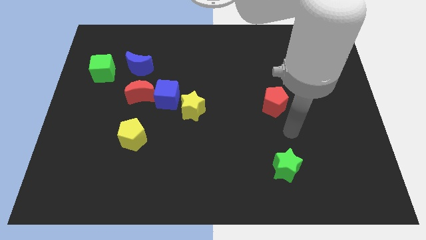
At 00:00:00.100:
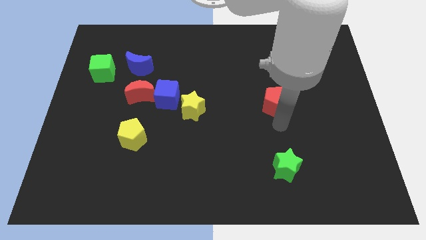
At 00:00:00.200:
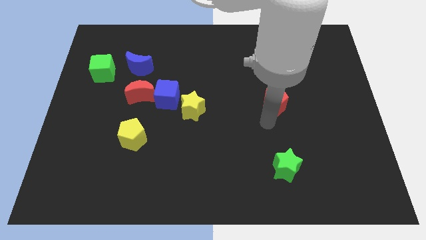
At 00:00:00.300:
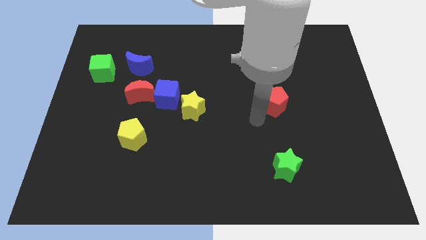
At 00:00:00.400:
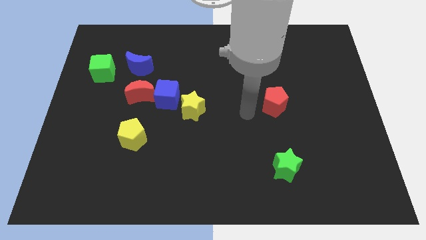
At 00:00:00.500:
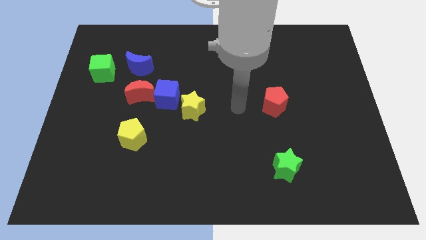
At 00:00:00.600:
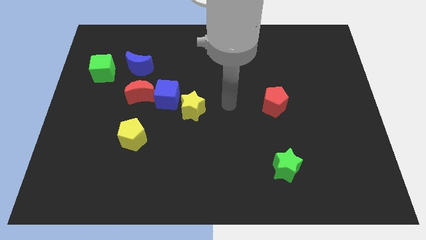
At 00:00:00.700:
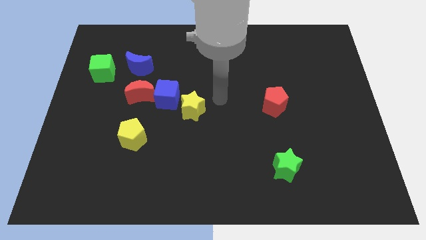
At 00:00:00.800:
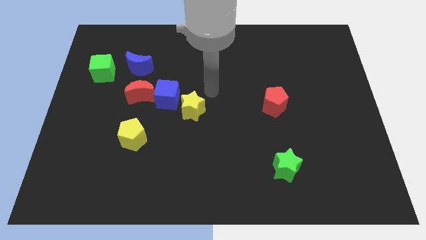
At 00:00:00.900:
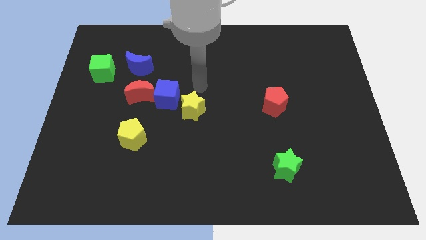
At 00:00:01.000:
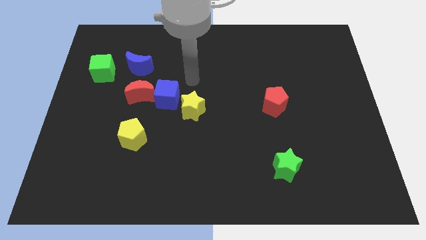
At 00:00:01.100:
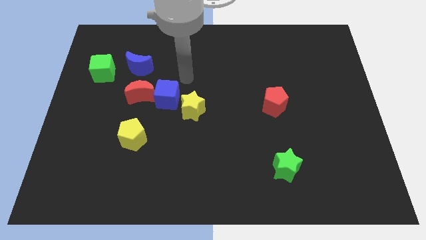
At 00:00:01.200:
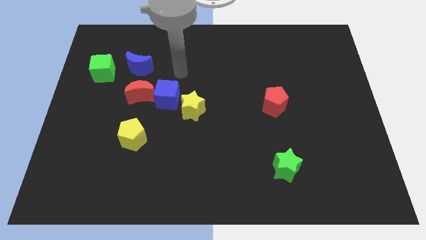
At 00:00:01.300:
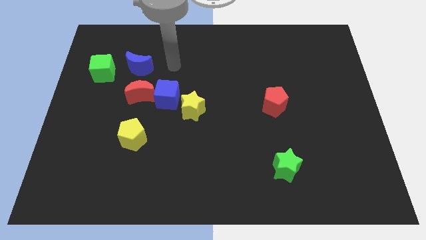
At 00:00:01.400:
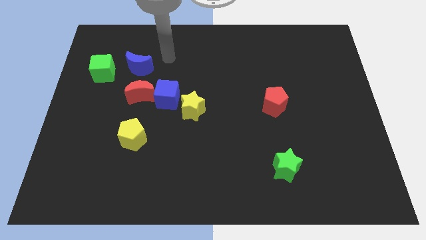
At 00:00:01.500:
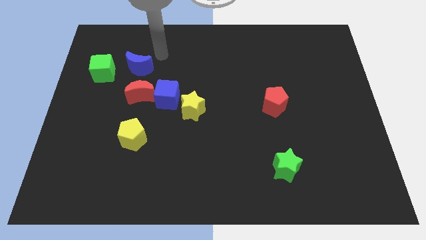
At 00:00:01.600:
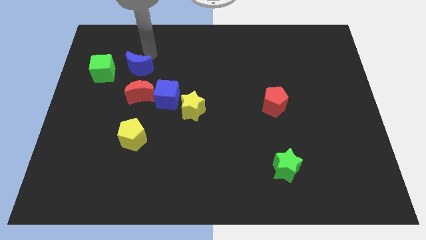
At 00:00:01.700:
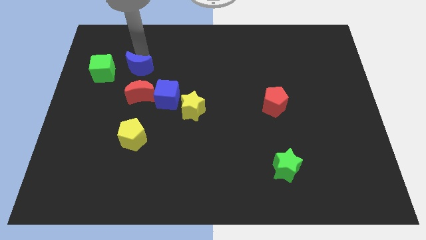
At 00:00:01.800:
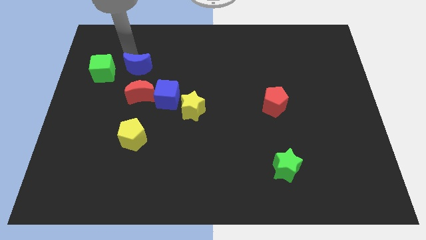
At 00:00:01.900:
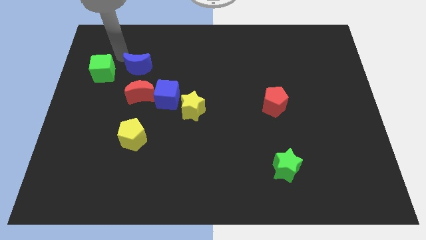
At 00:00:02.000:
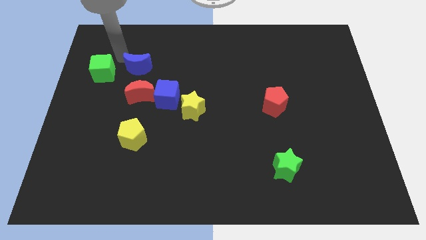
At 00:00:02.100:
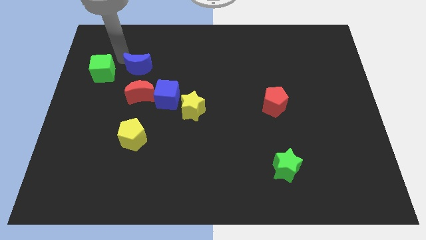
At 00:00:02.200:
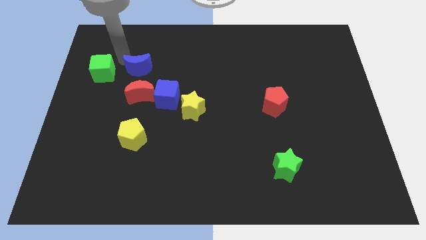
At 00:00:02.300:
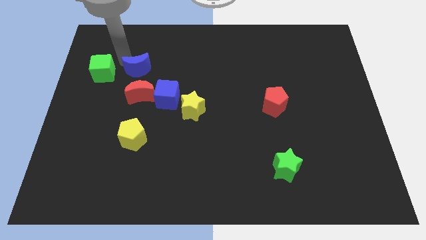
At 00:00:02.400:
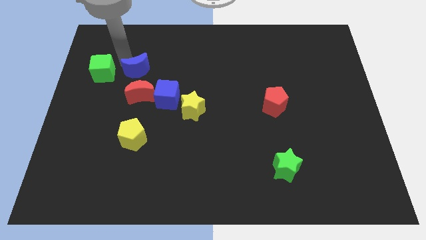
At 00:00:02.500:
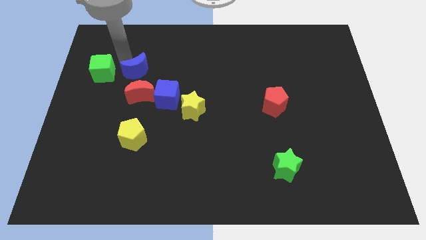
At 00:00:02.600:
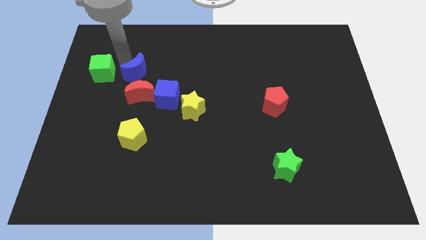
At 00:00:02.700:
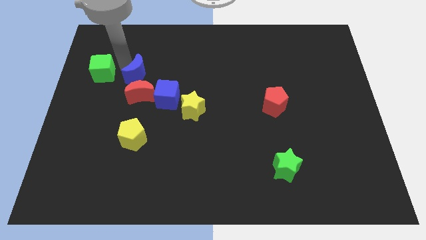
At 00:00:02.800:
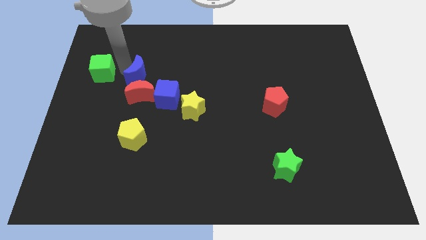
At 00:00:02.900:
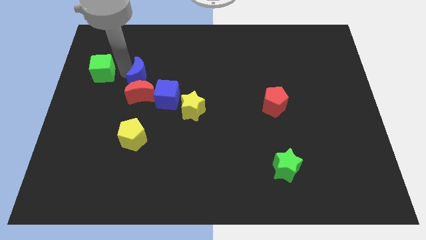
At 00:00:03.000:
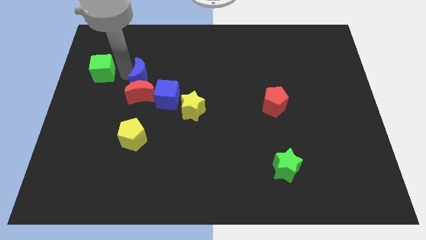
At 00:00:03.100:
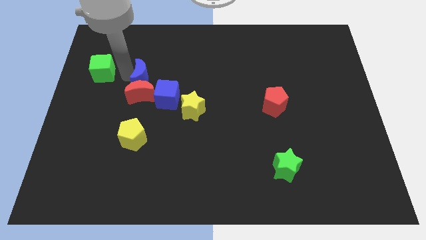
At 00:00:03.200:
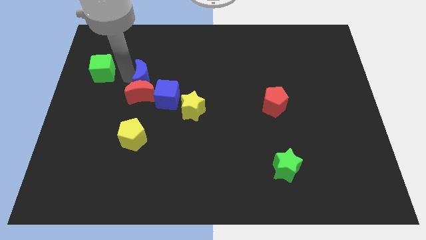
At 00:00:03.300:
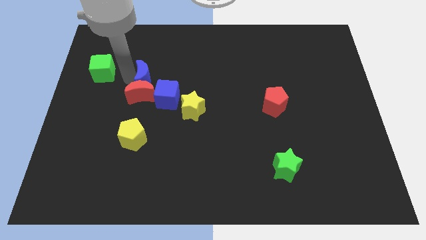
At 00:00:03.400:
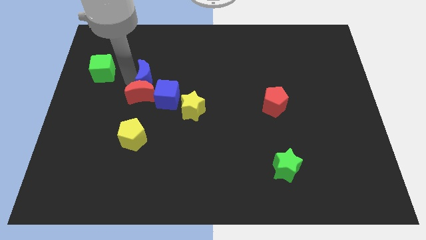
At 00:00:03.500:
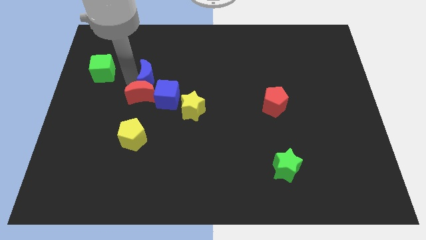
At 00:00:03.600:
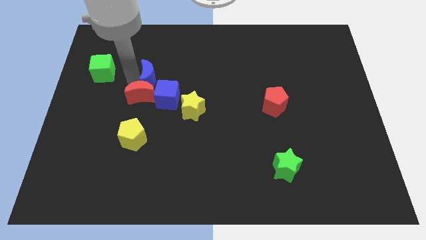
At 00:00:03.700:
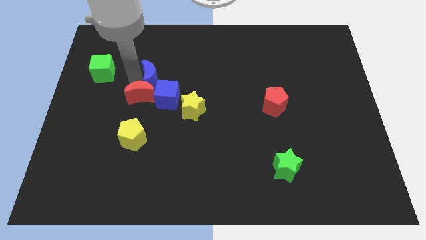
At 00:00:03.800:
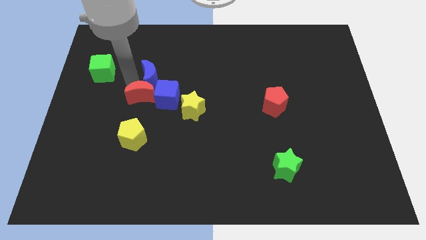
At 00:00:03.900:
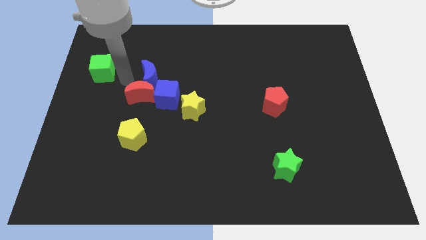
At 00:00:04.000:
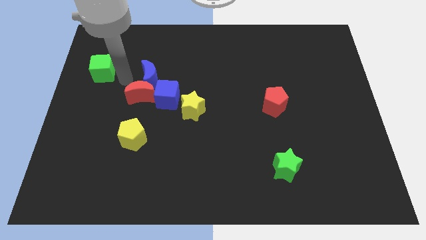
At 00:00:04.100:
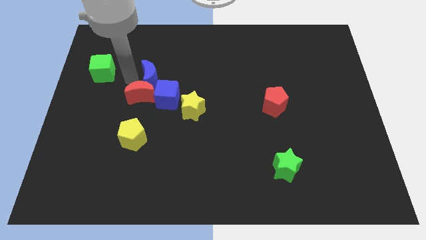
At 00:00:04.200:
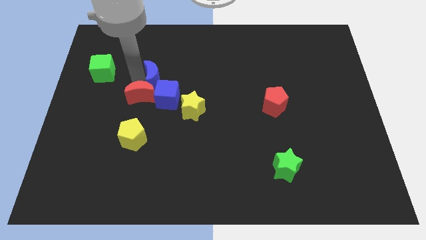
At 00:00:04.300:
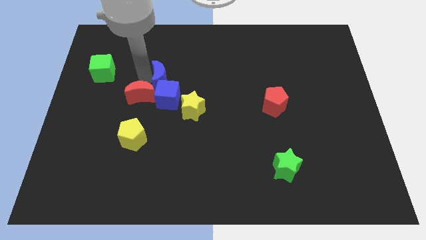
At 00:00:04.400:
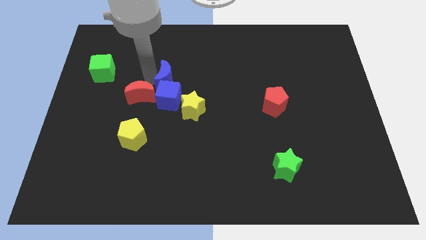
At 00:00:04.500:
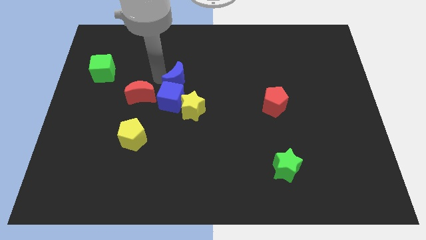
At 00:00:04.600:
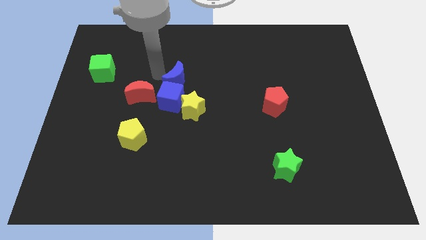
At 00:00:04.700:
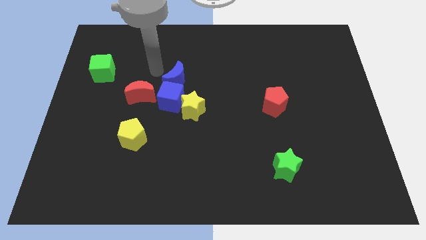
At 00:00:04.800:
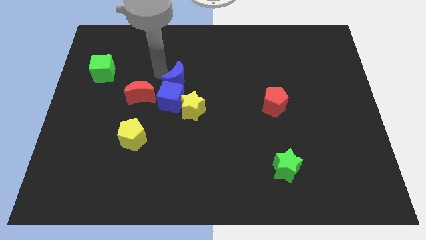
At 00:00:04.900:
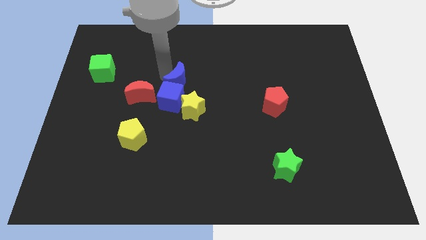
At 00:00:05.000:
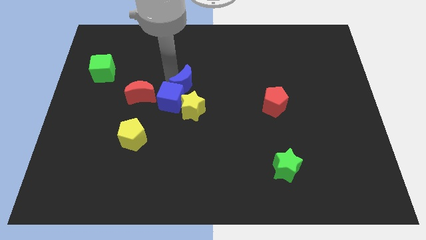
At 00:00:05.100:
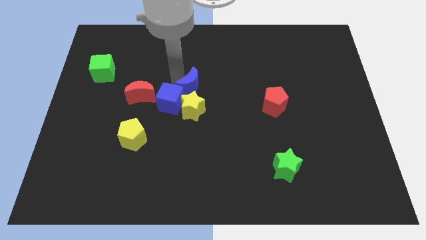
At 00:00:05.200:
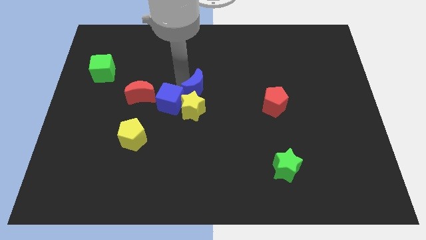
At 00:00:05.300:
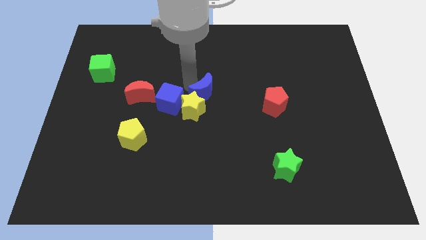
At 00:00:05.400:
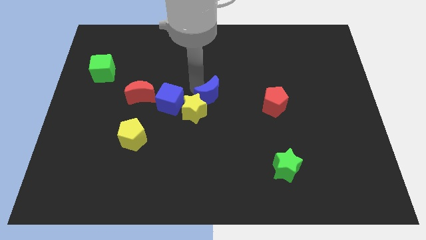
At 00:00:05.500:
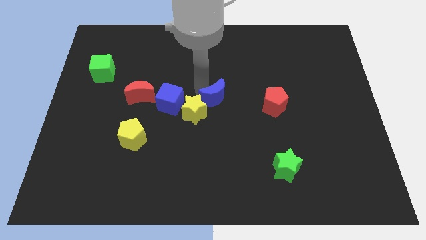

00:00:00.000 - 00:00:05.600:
move the blue moon just right of the yellow star

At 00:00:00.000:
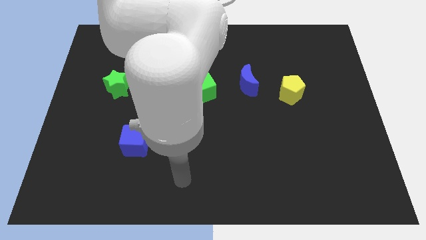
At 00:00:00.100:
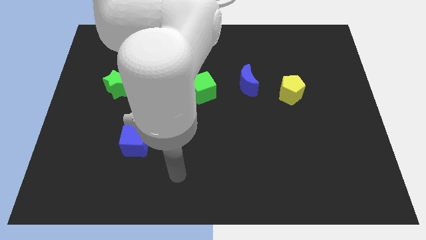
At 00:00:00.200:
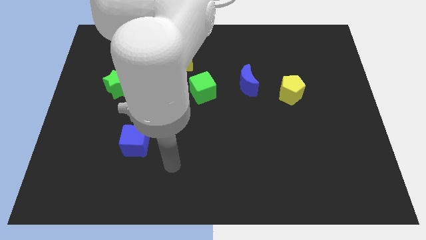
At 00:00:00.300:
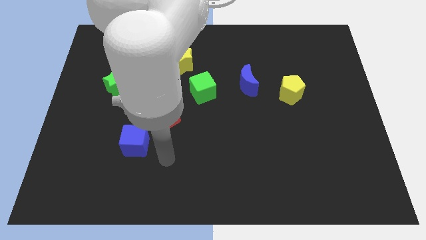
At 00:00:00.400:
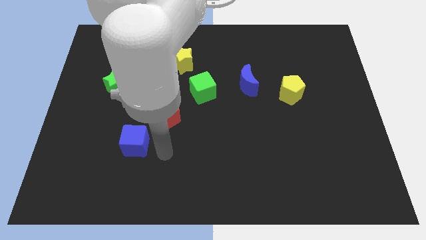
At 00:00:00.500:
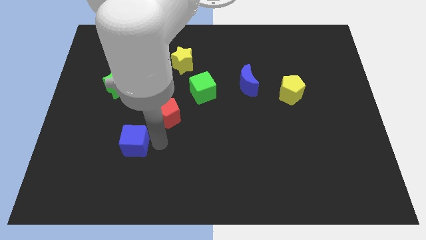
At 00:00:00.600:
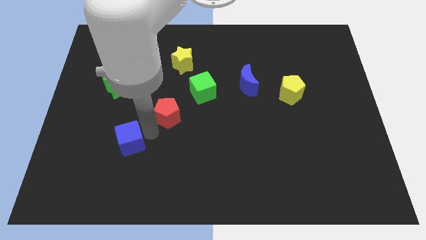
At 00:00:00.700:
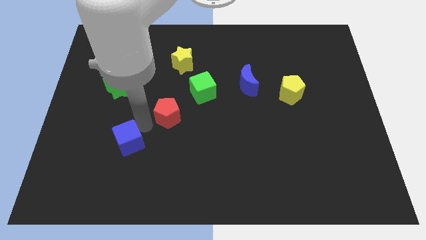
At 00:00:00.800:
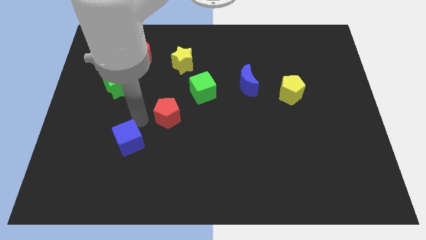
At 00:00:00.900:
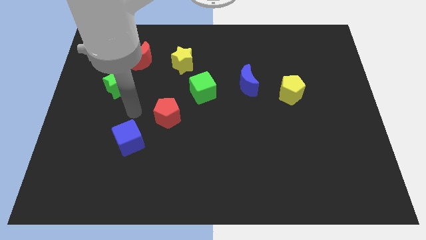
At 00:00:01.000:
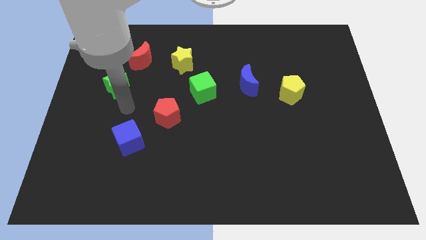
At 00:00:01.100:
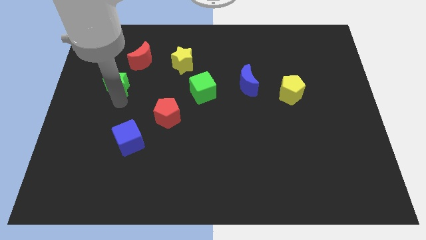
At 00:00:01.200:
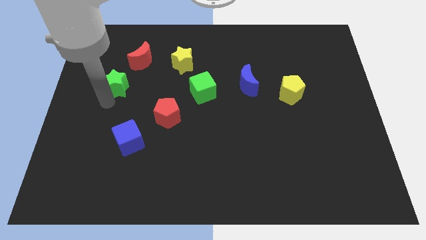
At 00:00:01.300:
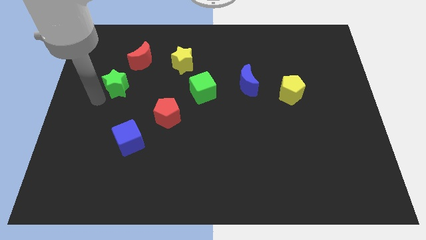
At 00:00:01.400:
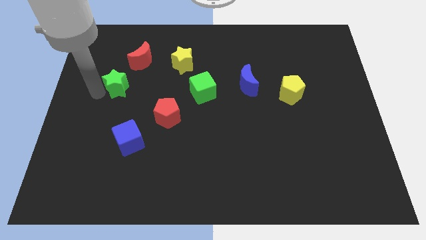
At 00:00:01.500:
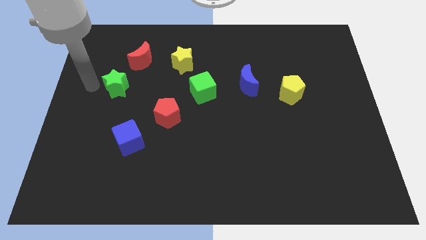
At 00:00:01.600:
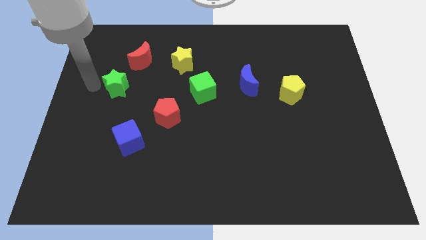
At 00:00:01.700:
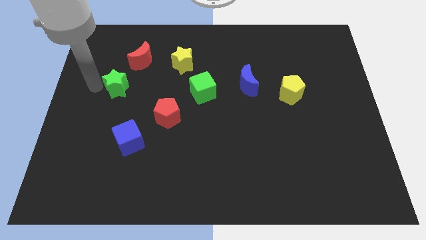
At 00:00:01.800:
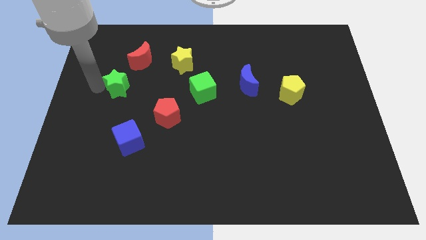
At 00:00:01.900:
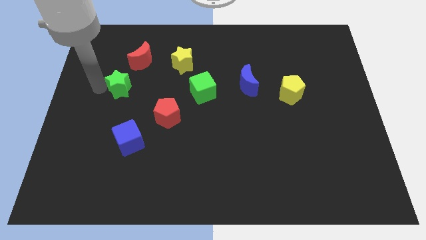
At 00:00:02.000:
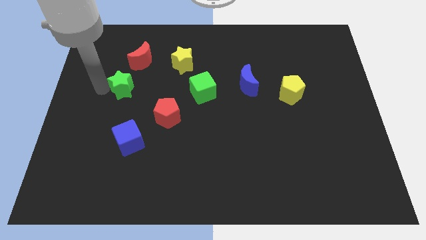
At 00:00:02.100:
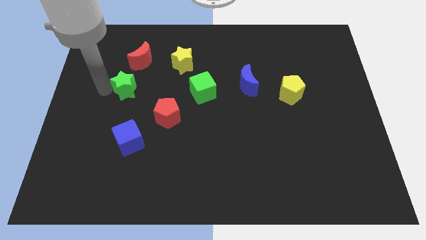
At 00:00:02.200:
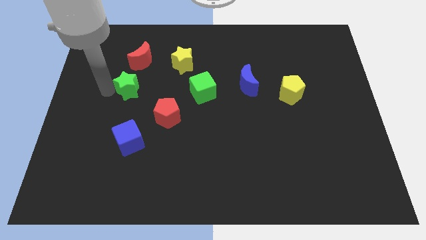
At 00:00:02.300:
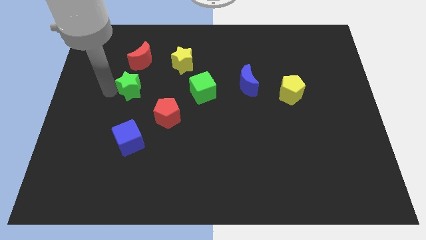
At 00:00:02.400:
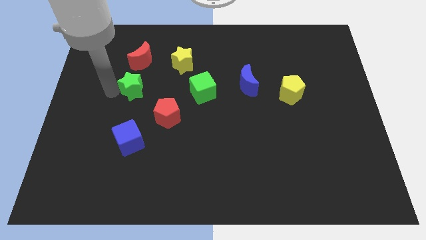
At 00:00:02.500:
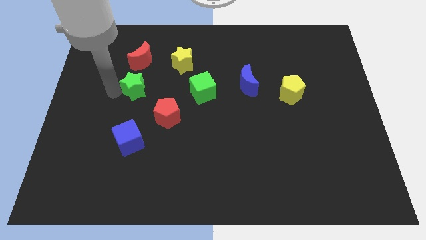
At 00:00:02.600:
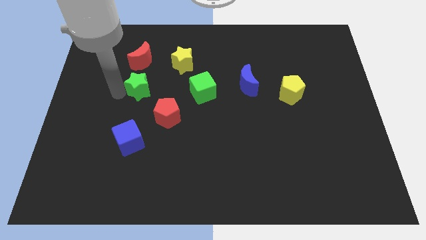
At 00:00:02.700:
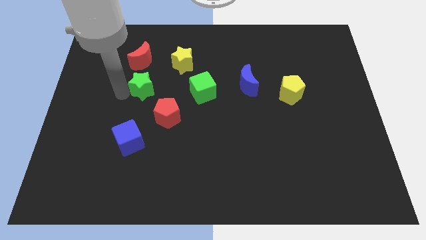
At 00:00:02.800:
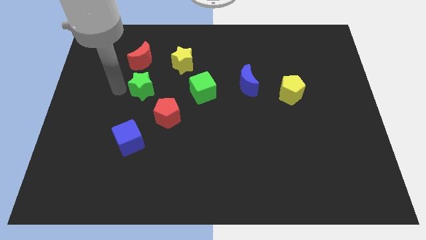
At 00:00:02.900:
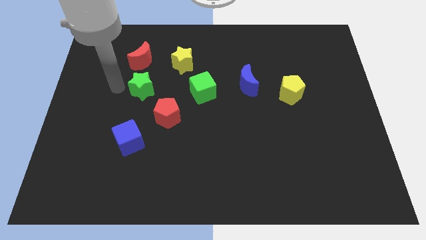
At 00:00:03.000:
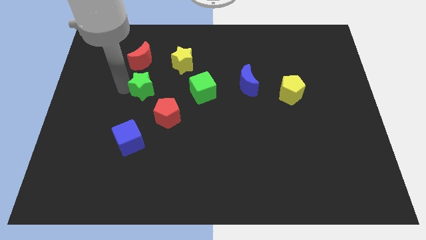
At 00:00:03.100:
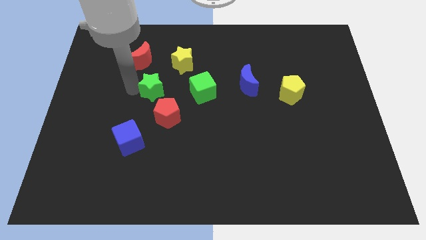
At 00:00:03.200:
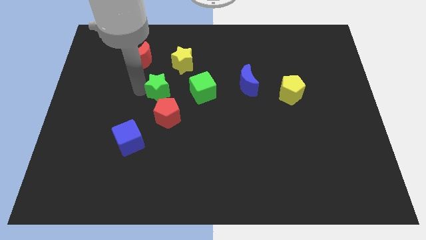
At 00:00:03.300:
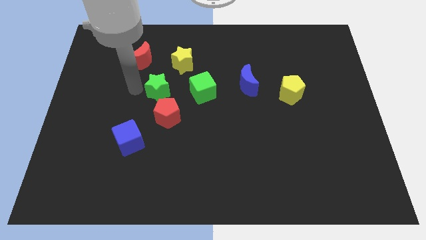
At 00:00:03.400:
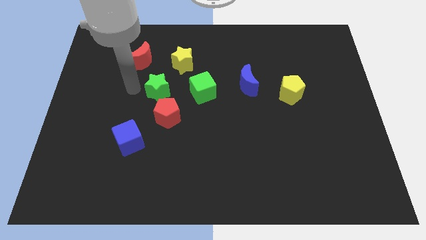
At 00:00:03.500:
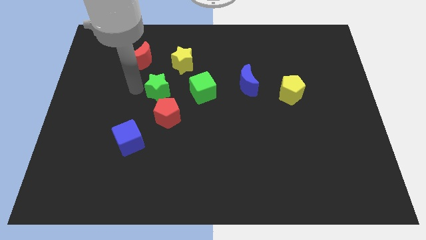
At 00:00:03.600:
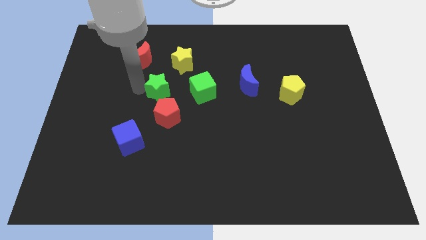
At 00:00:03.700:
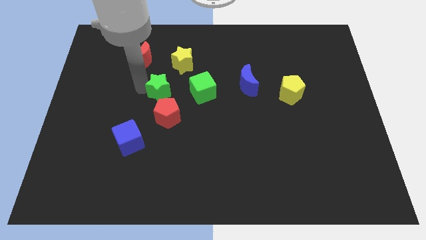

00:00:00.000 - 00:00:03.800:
slide the green star below the yellow star
